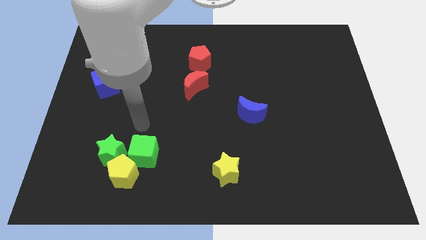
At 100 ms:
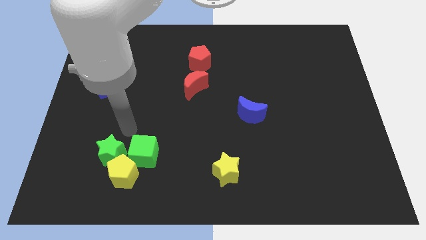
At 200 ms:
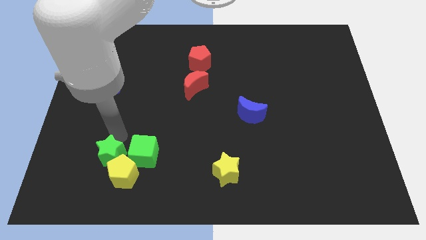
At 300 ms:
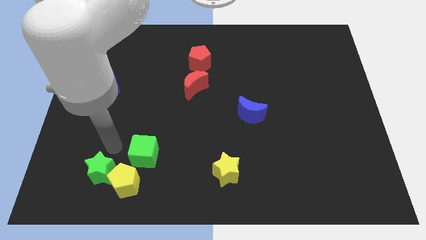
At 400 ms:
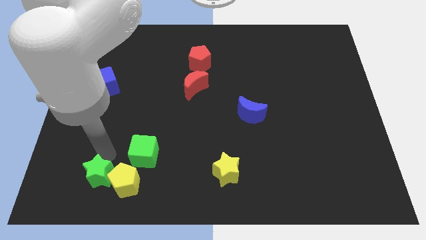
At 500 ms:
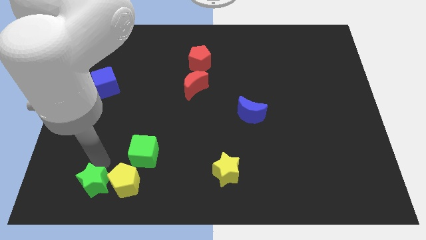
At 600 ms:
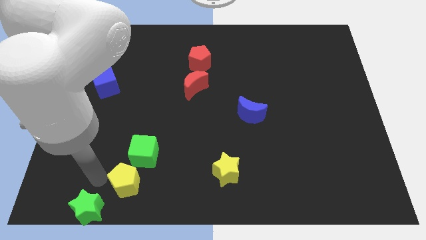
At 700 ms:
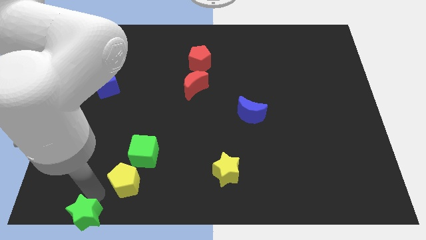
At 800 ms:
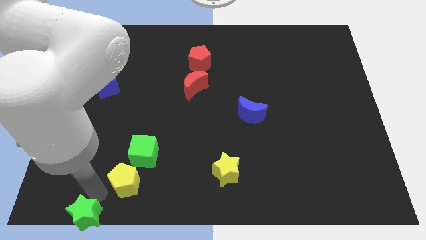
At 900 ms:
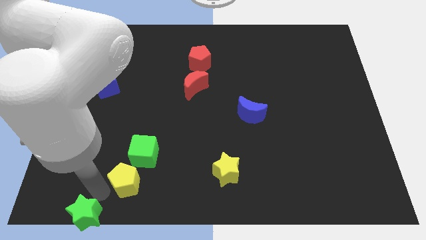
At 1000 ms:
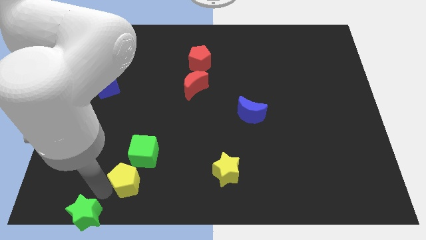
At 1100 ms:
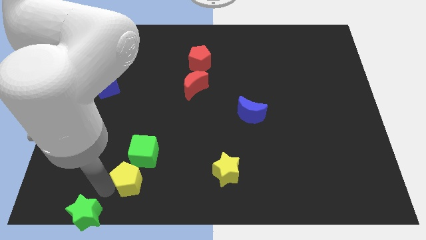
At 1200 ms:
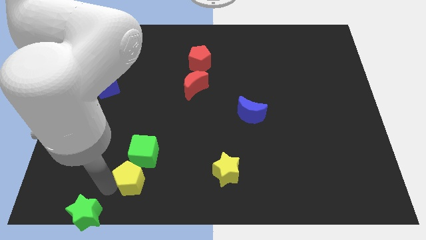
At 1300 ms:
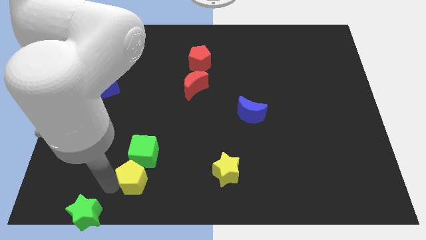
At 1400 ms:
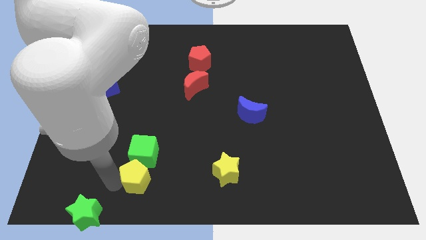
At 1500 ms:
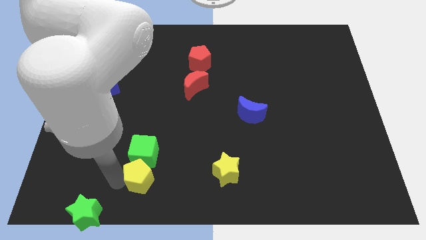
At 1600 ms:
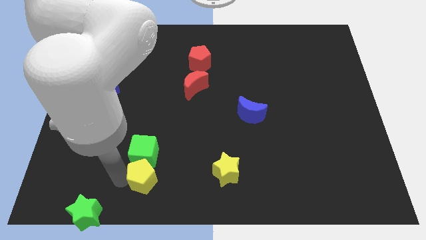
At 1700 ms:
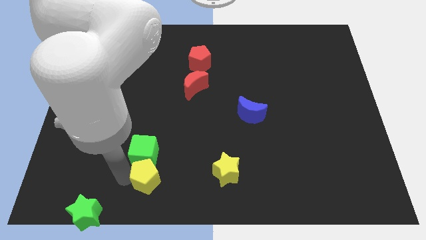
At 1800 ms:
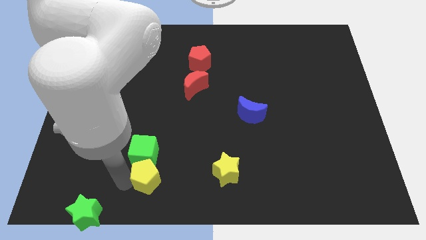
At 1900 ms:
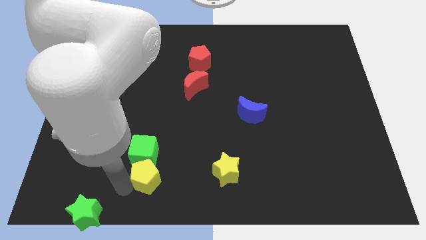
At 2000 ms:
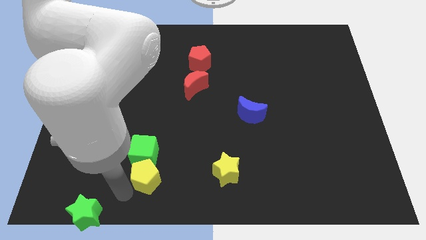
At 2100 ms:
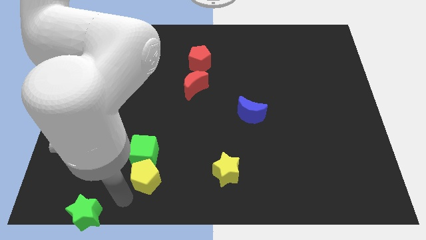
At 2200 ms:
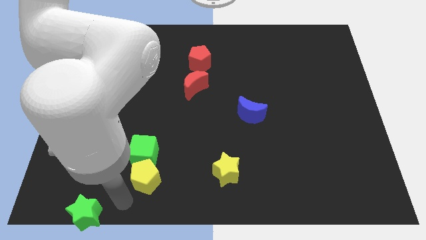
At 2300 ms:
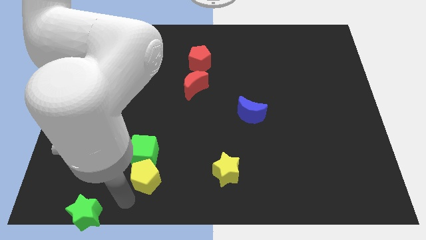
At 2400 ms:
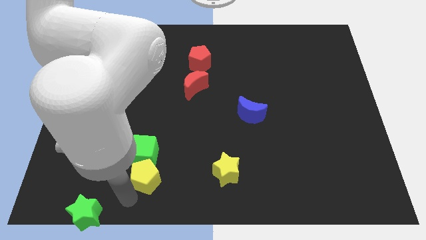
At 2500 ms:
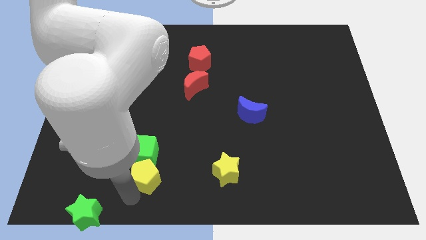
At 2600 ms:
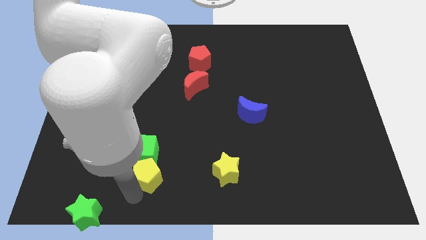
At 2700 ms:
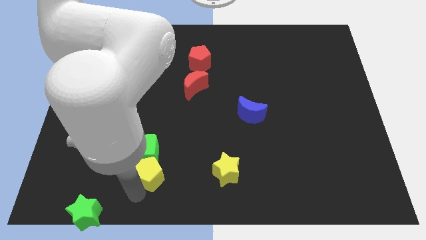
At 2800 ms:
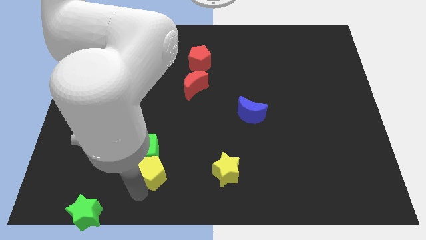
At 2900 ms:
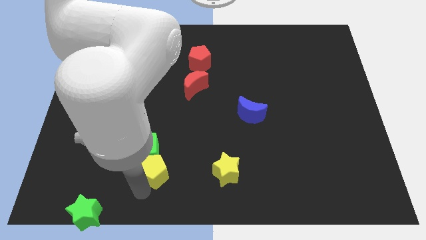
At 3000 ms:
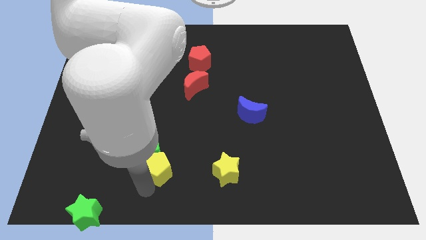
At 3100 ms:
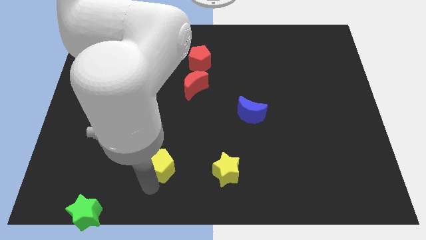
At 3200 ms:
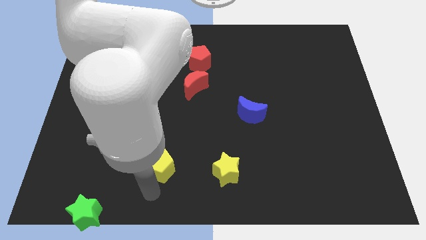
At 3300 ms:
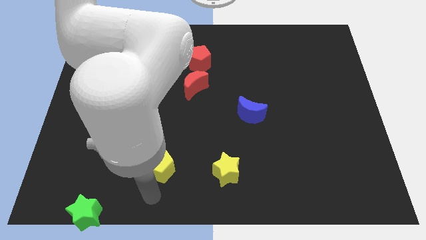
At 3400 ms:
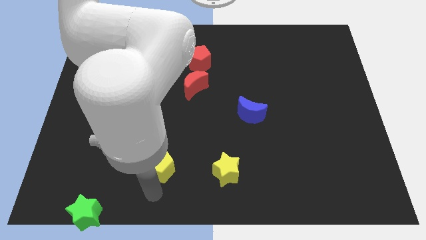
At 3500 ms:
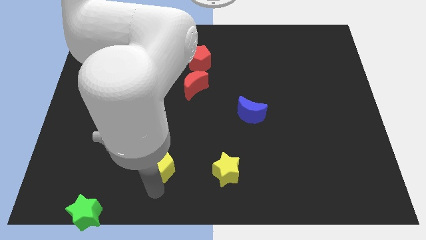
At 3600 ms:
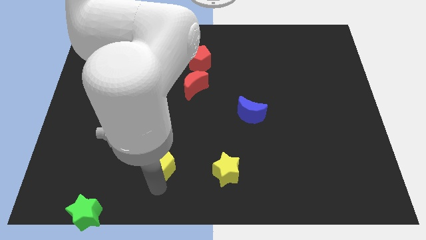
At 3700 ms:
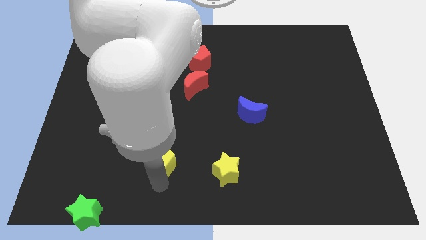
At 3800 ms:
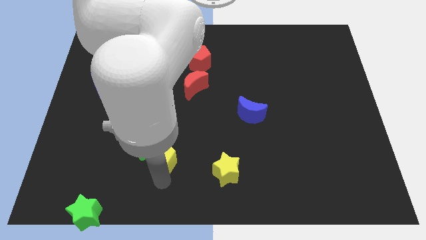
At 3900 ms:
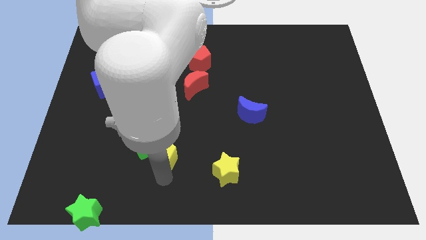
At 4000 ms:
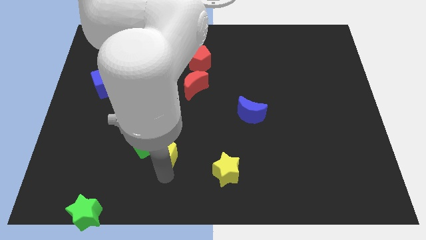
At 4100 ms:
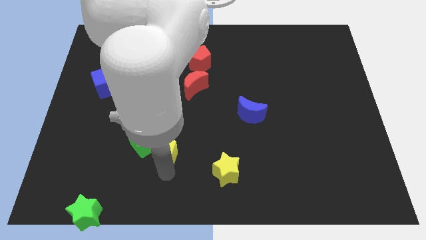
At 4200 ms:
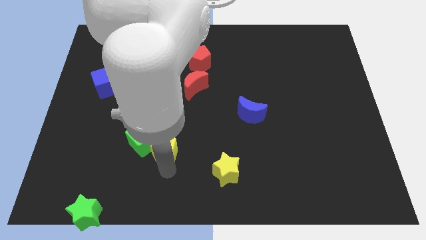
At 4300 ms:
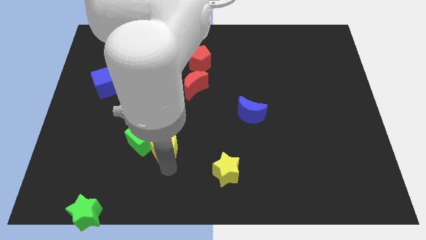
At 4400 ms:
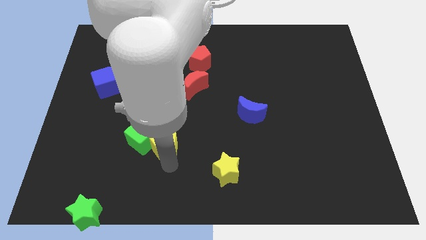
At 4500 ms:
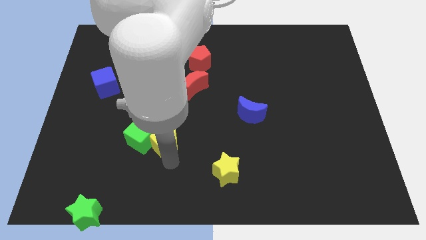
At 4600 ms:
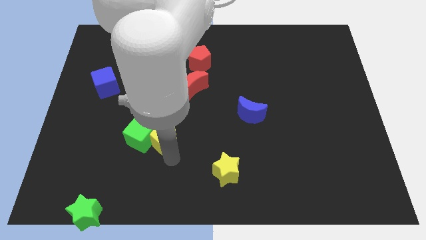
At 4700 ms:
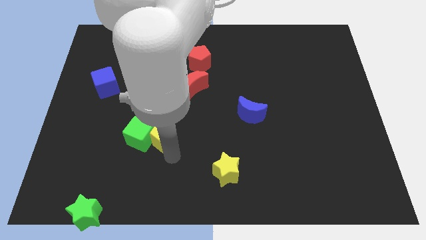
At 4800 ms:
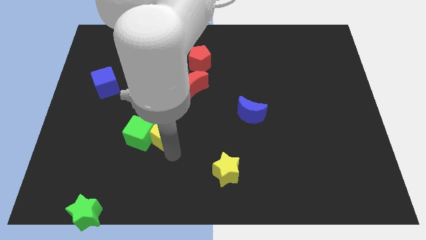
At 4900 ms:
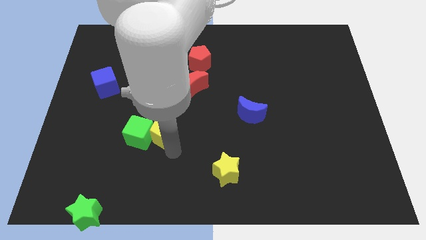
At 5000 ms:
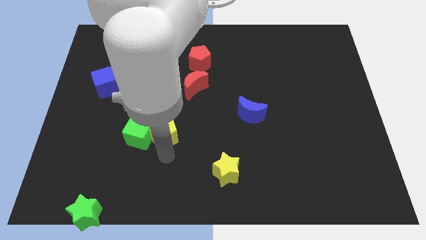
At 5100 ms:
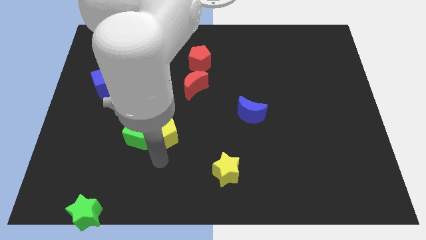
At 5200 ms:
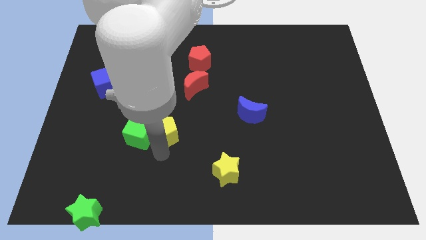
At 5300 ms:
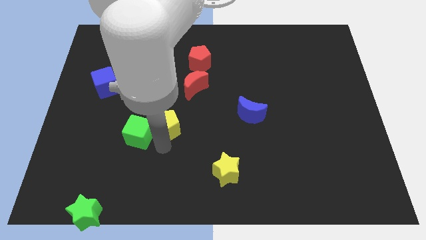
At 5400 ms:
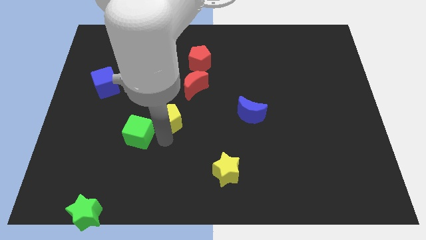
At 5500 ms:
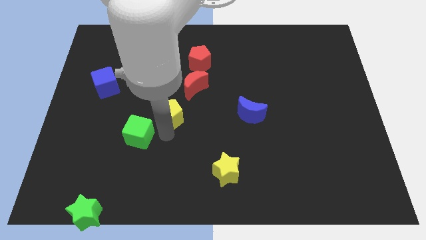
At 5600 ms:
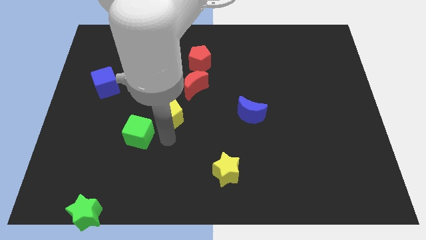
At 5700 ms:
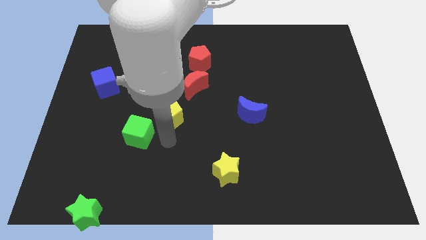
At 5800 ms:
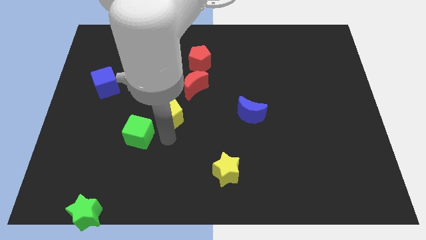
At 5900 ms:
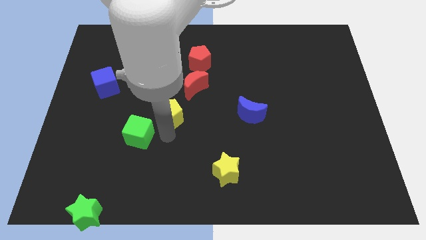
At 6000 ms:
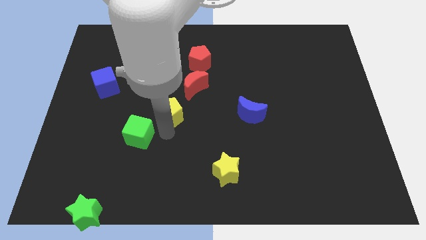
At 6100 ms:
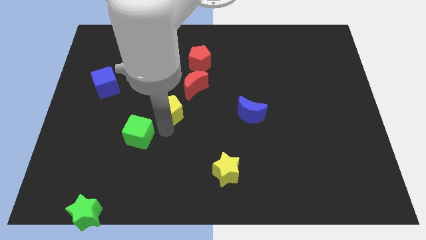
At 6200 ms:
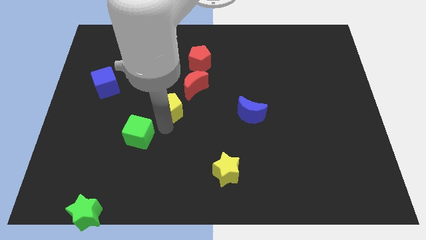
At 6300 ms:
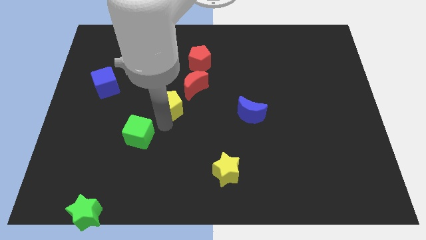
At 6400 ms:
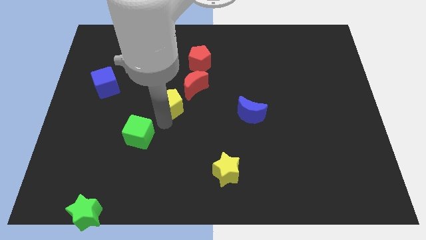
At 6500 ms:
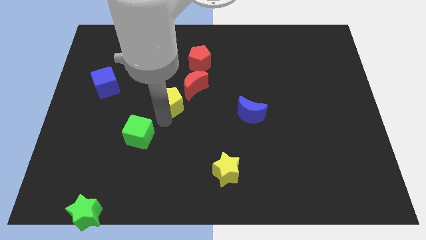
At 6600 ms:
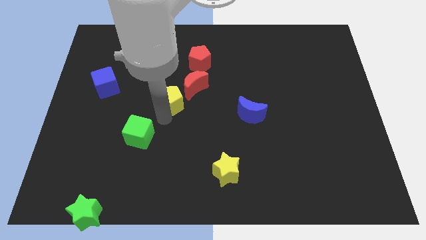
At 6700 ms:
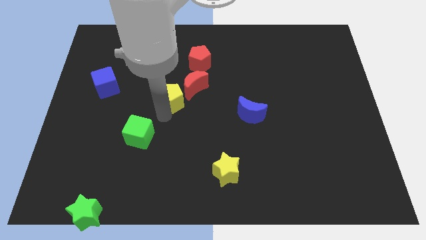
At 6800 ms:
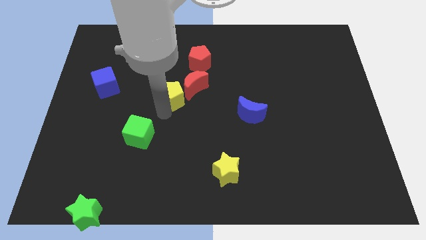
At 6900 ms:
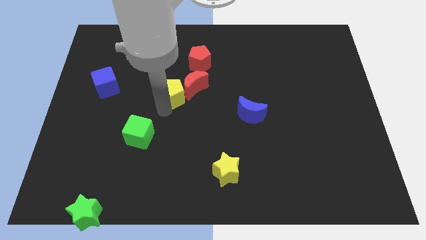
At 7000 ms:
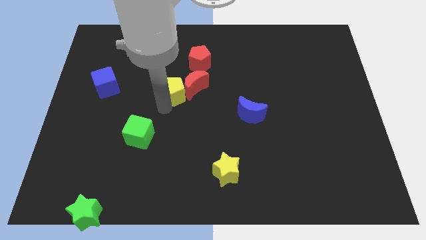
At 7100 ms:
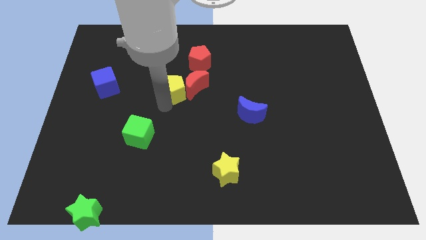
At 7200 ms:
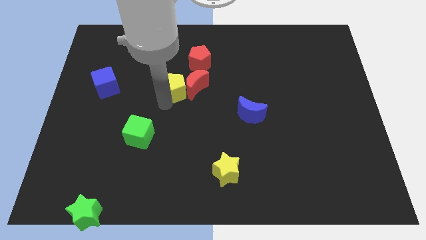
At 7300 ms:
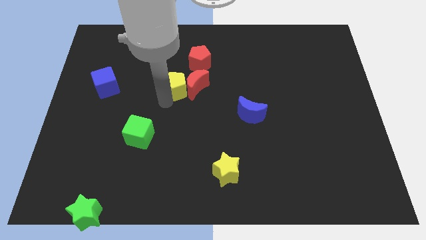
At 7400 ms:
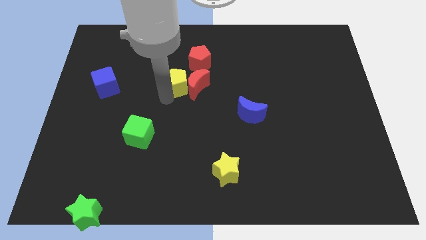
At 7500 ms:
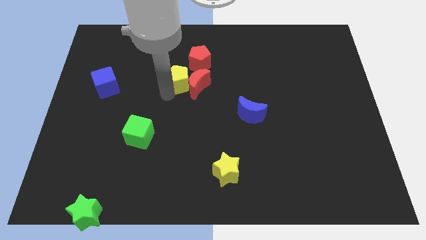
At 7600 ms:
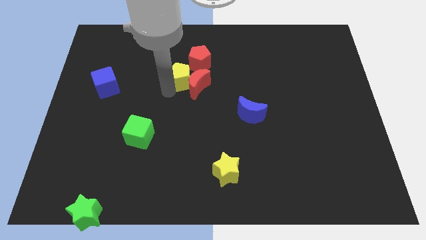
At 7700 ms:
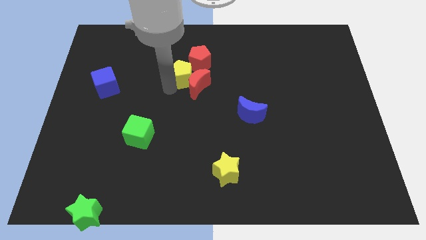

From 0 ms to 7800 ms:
move the yellow pentagon to the top side of the red moon
